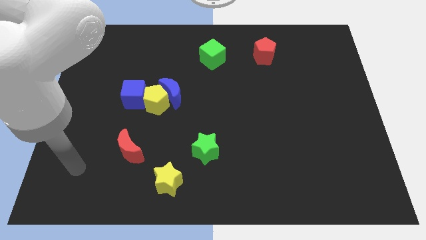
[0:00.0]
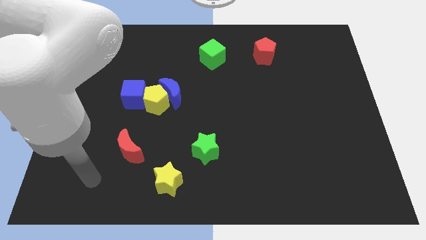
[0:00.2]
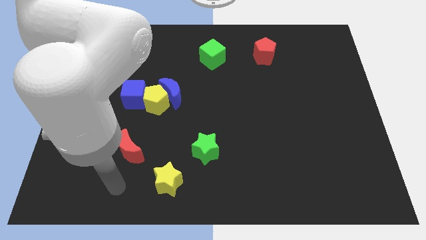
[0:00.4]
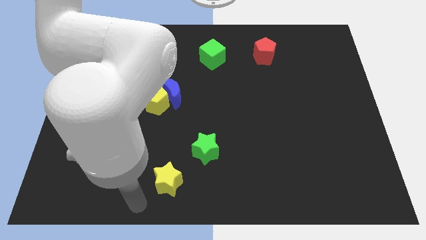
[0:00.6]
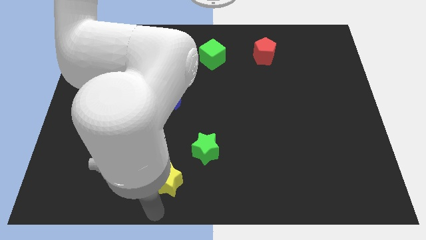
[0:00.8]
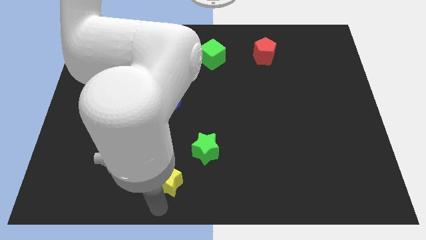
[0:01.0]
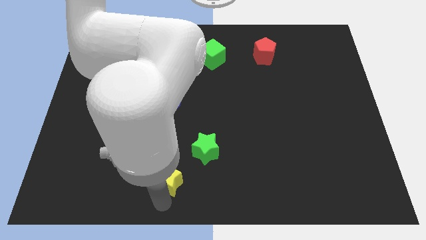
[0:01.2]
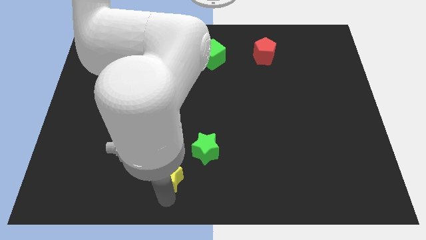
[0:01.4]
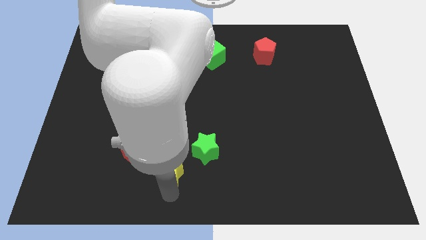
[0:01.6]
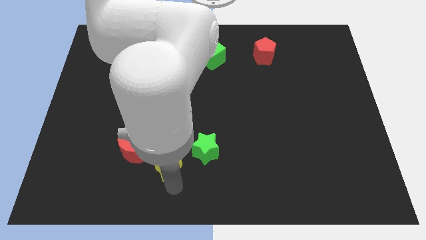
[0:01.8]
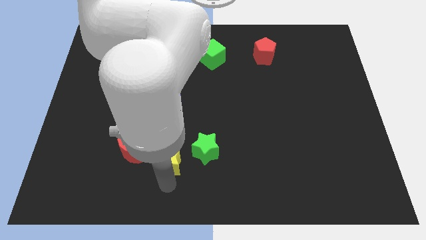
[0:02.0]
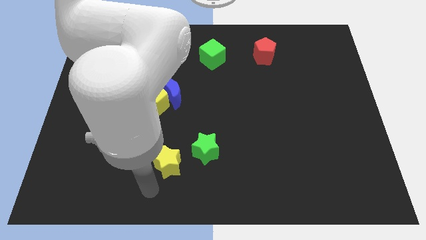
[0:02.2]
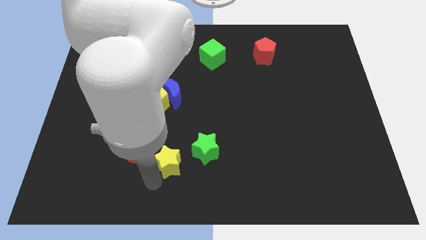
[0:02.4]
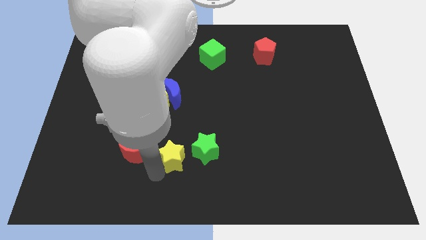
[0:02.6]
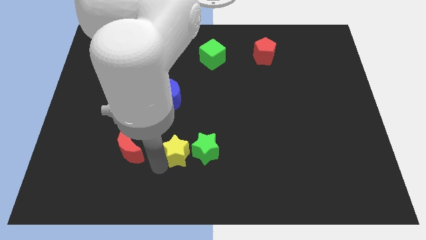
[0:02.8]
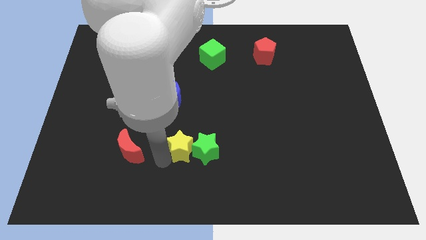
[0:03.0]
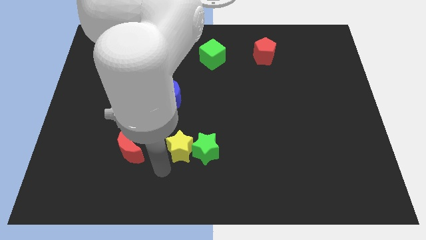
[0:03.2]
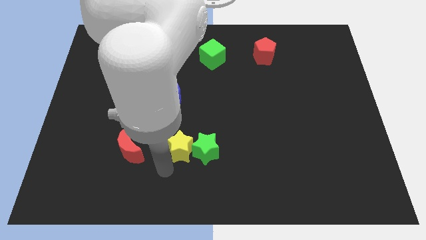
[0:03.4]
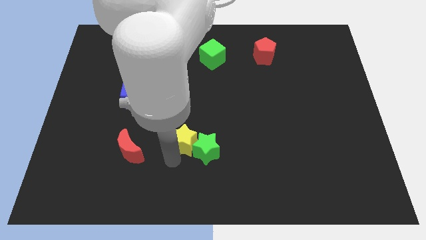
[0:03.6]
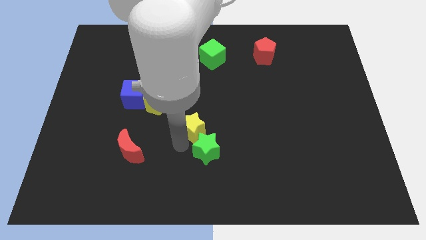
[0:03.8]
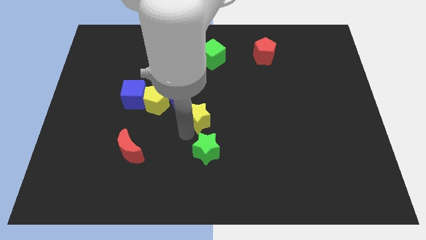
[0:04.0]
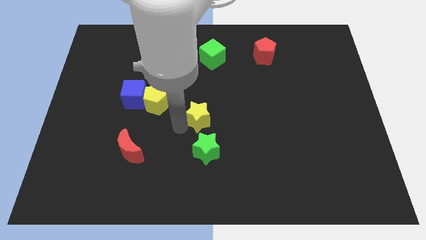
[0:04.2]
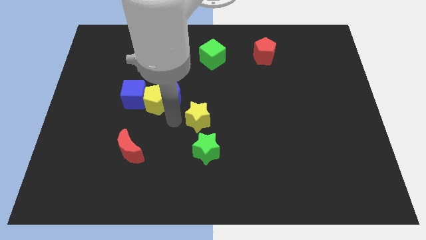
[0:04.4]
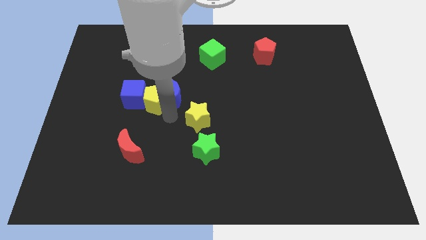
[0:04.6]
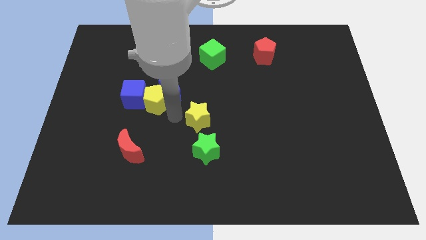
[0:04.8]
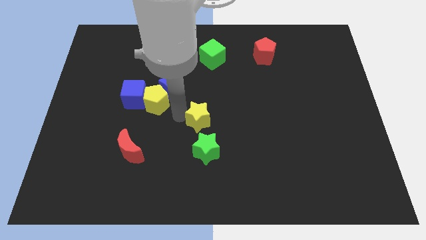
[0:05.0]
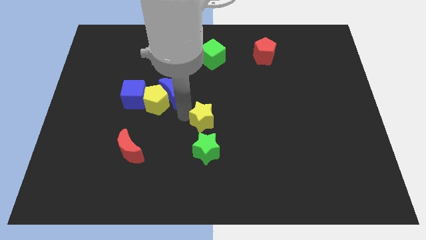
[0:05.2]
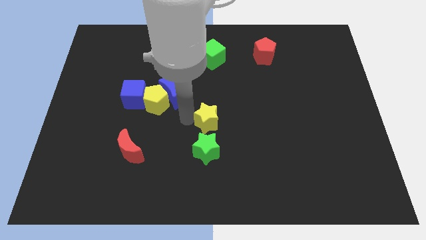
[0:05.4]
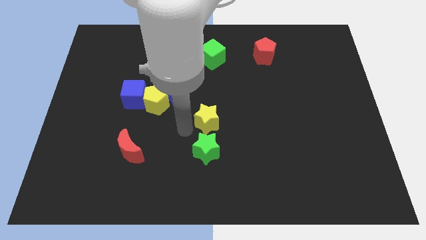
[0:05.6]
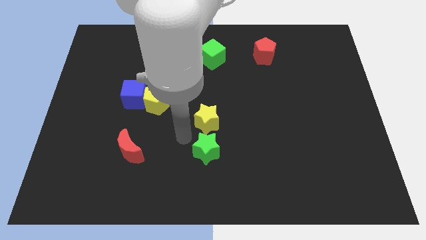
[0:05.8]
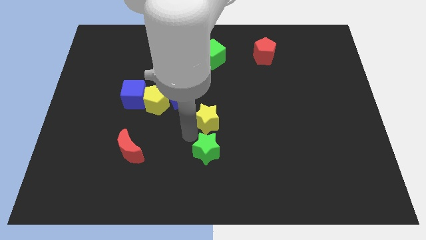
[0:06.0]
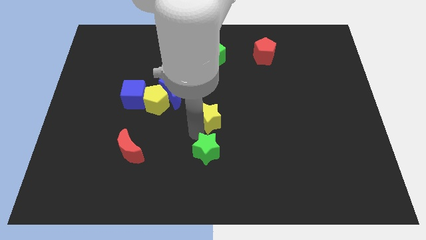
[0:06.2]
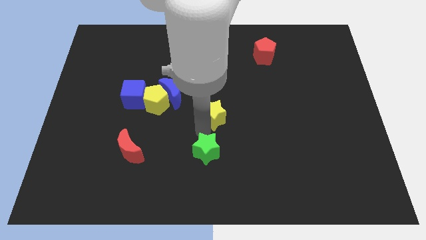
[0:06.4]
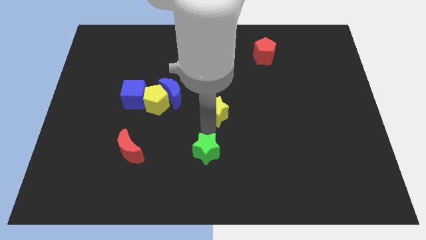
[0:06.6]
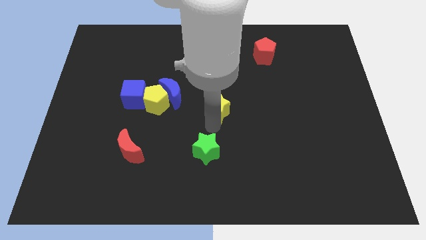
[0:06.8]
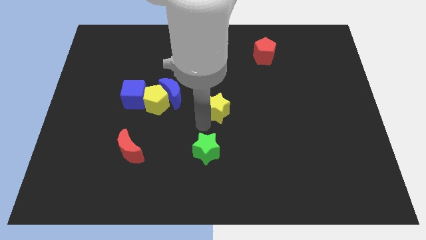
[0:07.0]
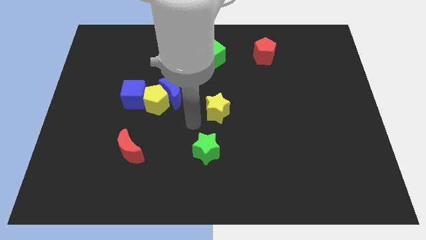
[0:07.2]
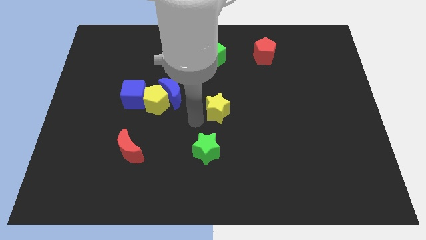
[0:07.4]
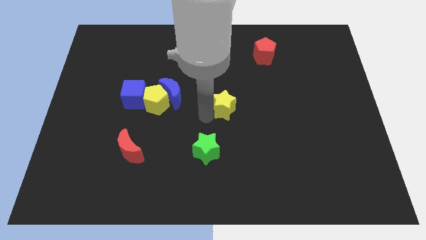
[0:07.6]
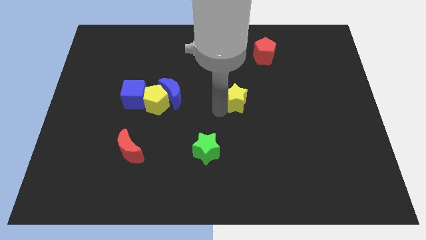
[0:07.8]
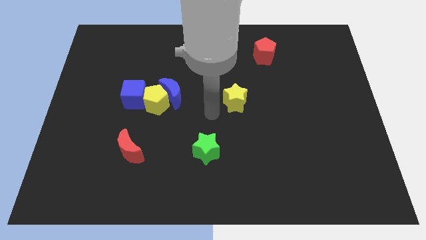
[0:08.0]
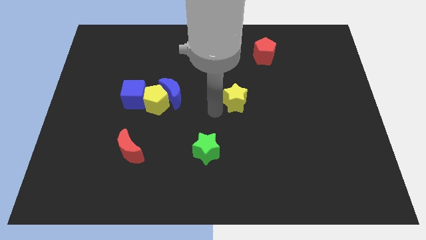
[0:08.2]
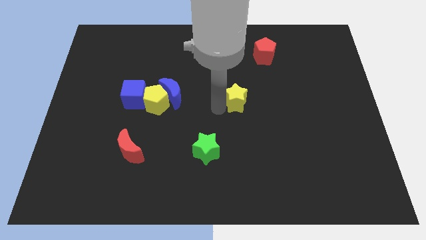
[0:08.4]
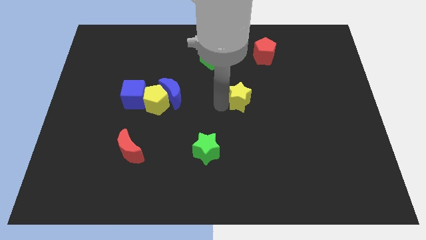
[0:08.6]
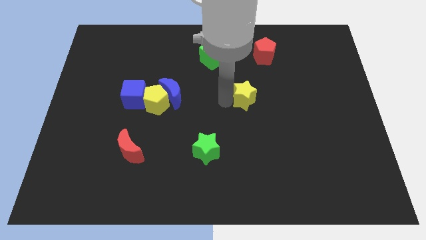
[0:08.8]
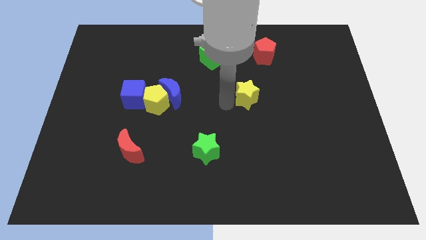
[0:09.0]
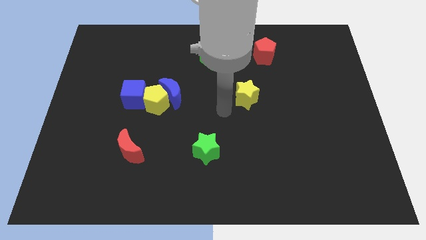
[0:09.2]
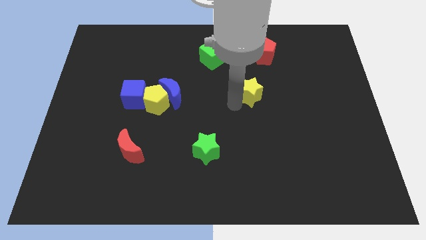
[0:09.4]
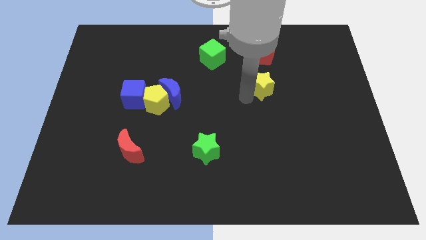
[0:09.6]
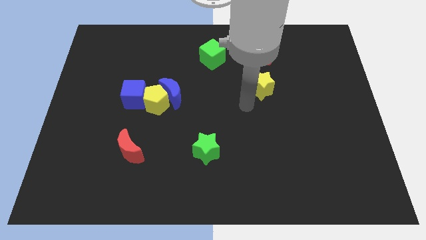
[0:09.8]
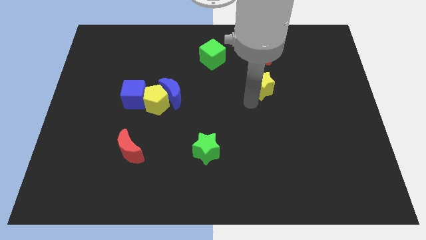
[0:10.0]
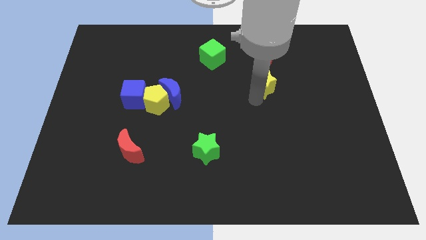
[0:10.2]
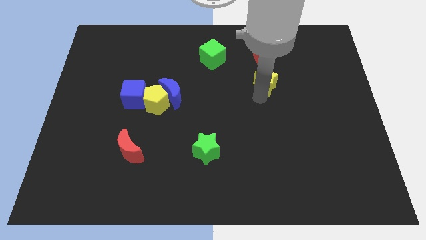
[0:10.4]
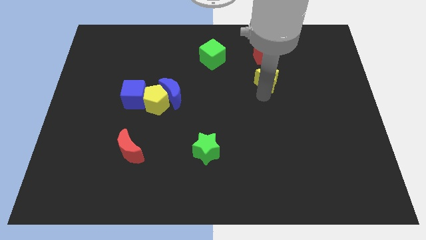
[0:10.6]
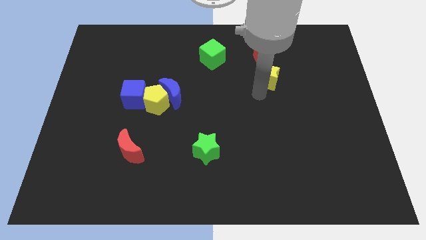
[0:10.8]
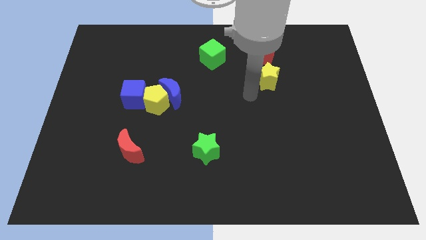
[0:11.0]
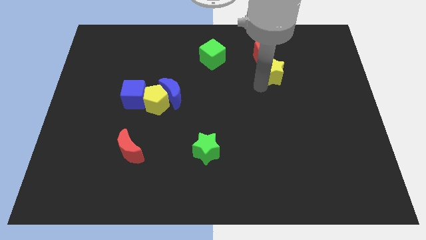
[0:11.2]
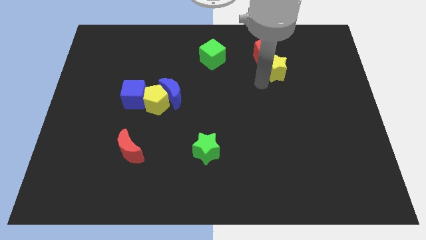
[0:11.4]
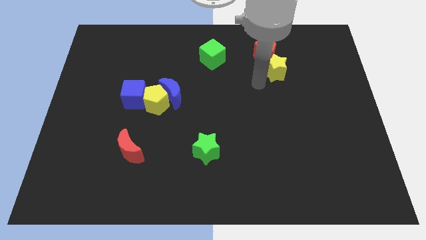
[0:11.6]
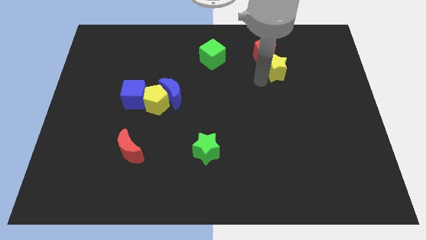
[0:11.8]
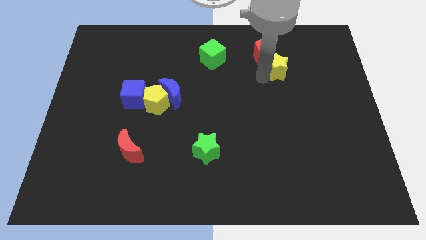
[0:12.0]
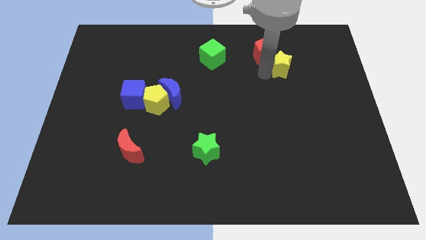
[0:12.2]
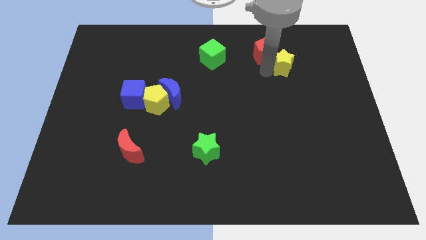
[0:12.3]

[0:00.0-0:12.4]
put the yellow star just right of the red pentagon
